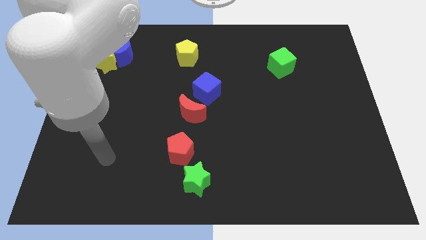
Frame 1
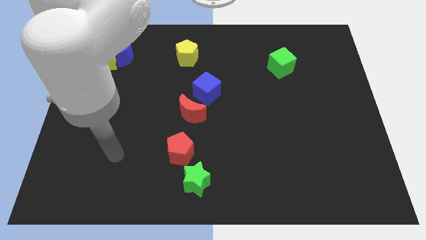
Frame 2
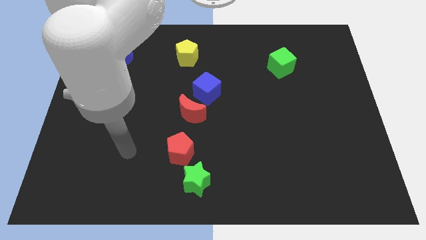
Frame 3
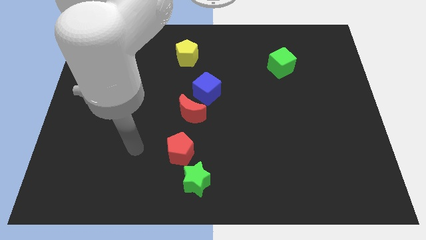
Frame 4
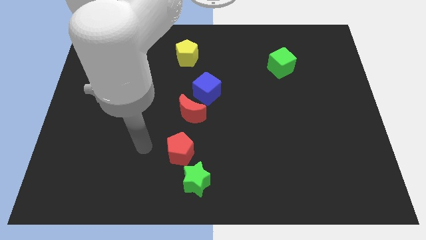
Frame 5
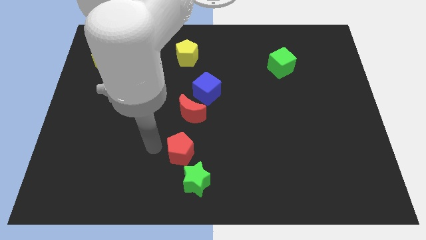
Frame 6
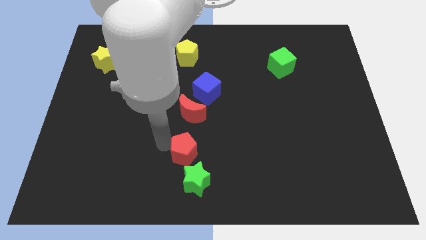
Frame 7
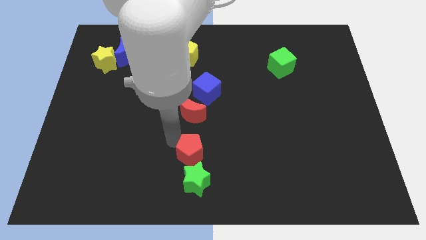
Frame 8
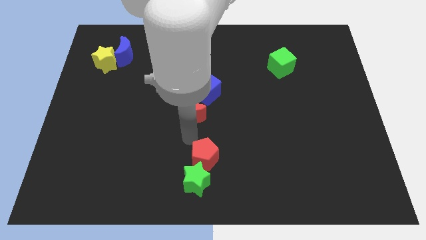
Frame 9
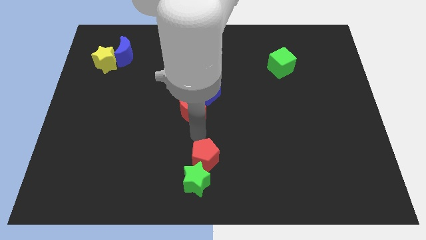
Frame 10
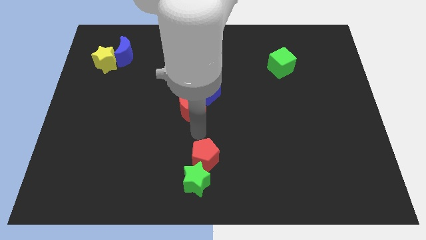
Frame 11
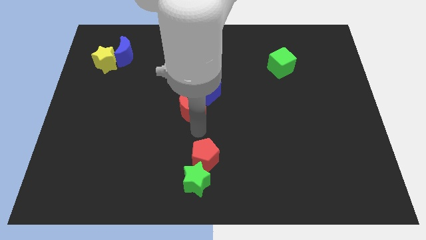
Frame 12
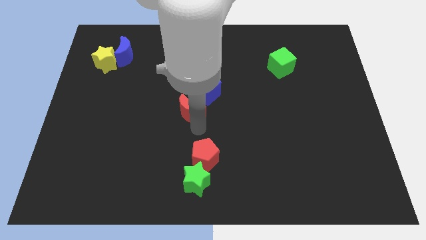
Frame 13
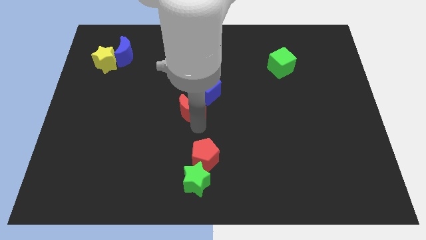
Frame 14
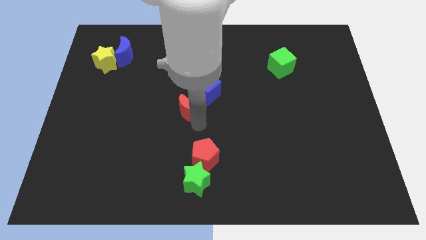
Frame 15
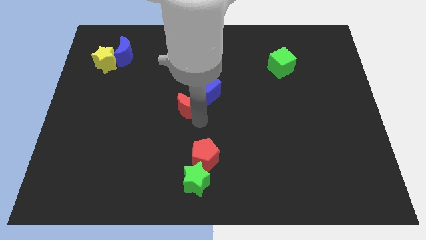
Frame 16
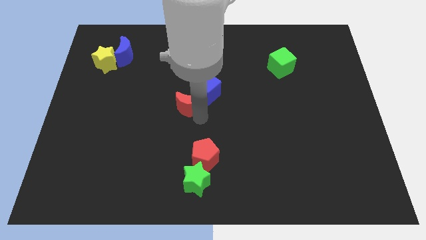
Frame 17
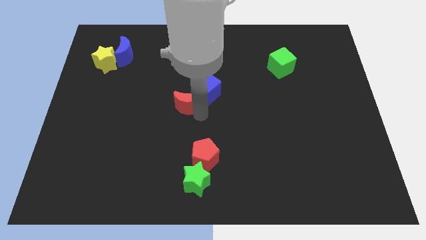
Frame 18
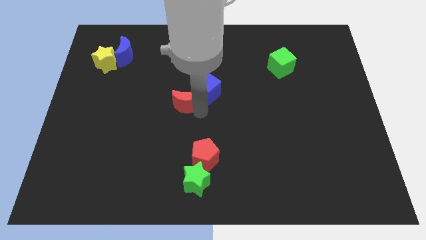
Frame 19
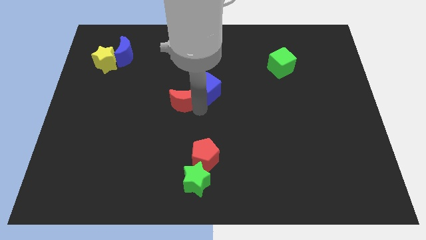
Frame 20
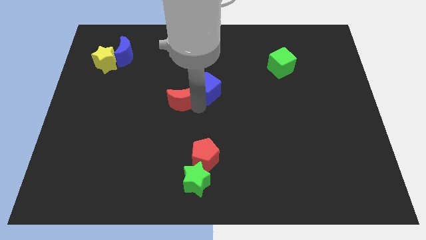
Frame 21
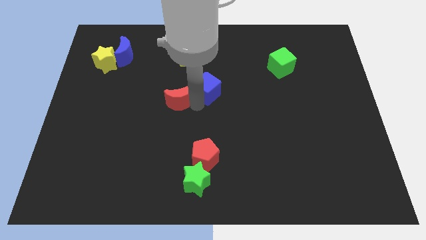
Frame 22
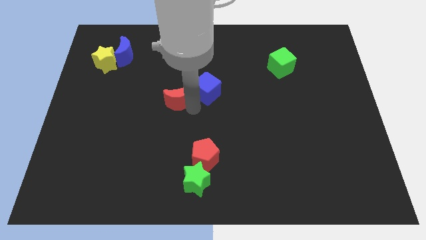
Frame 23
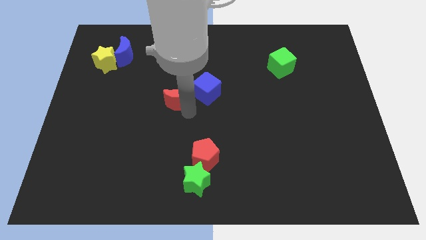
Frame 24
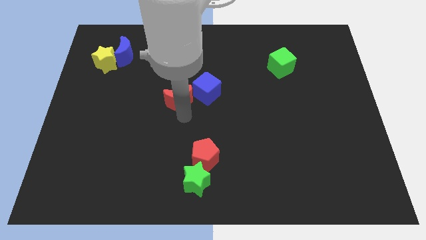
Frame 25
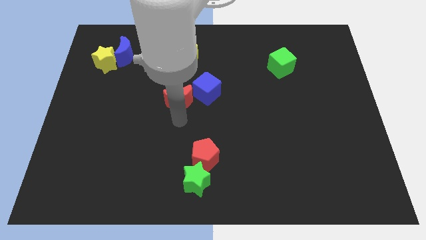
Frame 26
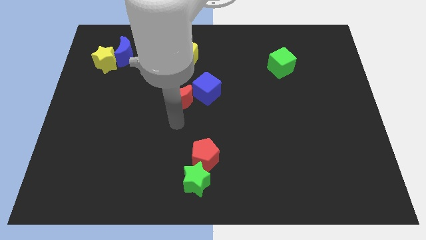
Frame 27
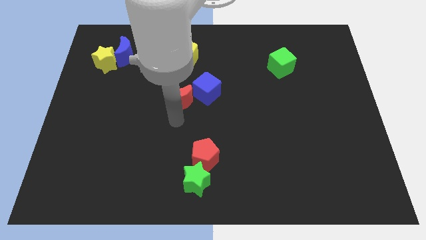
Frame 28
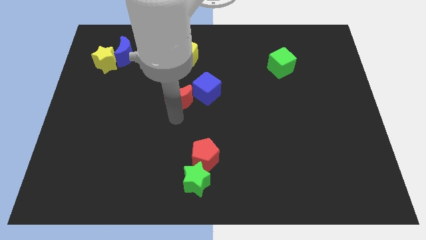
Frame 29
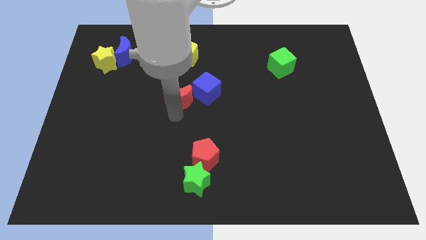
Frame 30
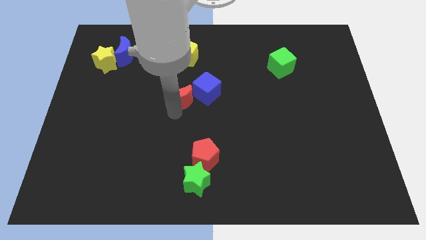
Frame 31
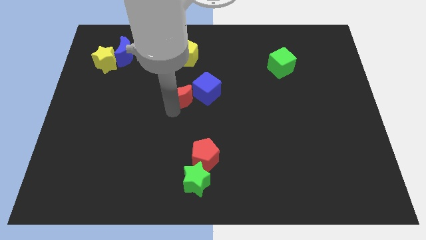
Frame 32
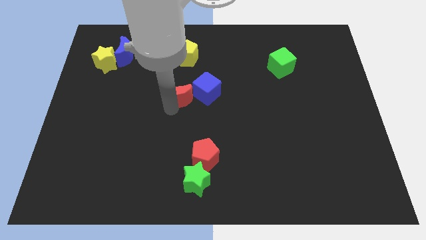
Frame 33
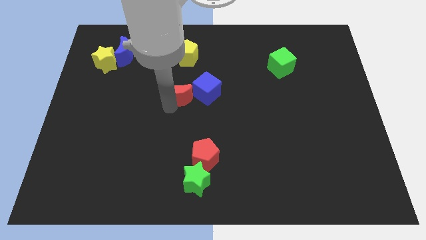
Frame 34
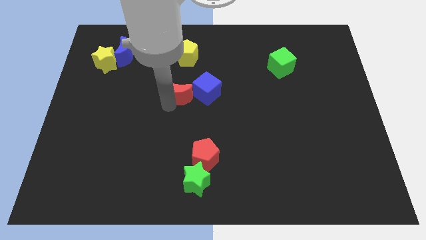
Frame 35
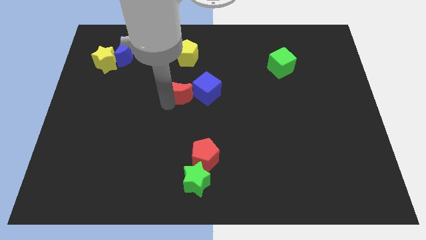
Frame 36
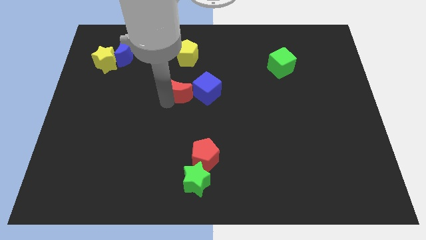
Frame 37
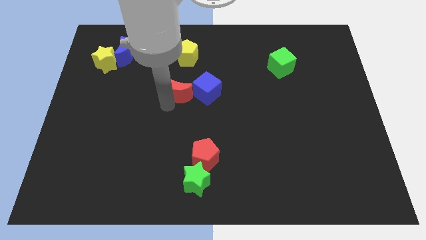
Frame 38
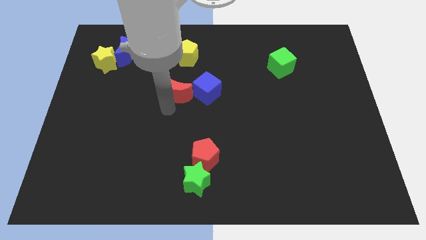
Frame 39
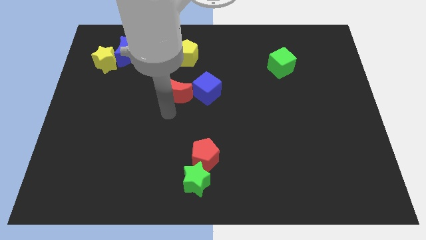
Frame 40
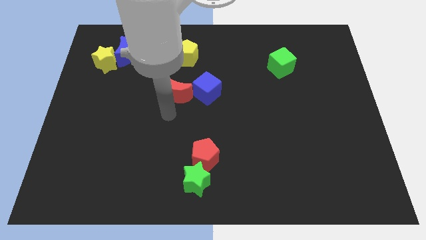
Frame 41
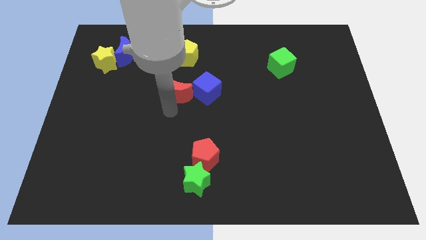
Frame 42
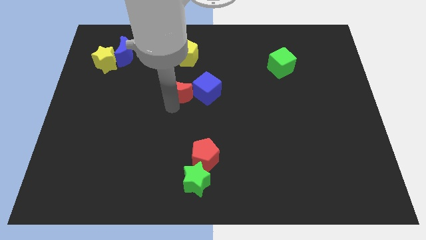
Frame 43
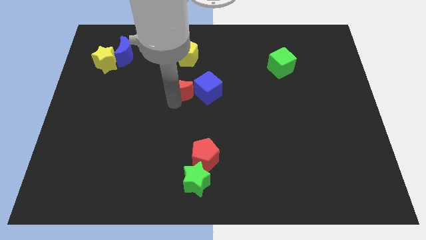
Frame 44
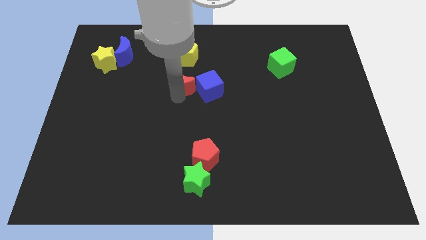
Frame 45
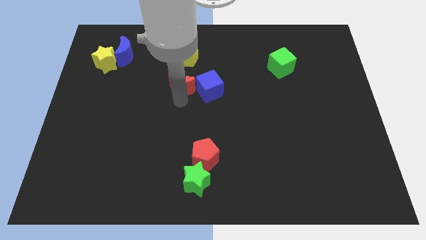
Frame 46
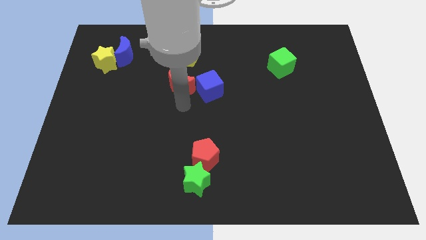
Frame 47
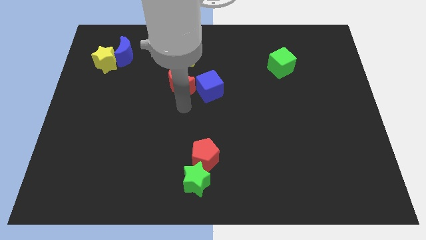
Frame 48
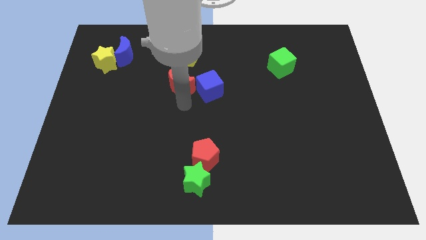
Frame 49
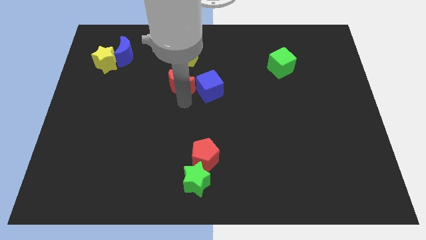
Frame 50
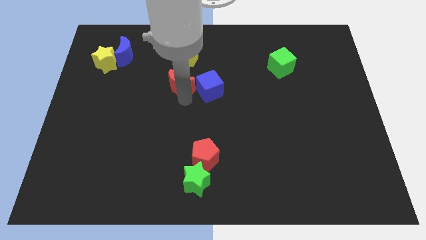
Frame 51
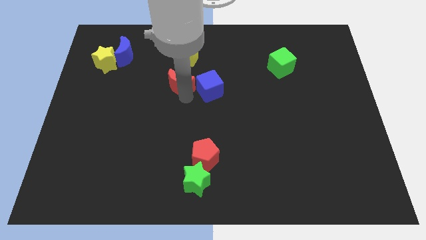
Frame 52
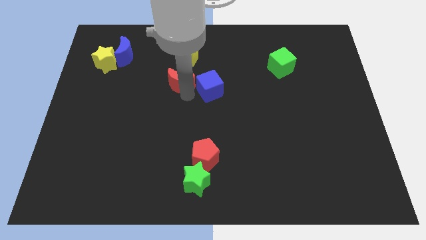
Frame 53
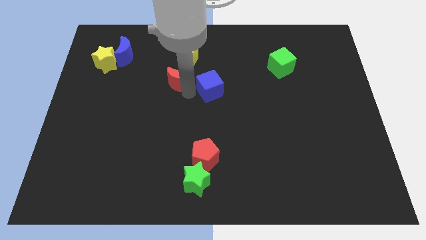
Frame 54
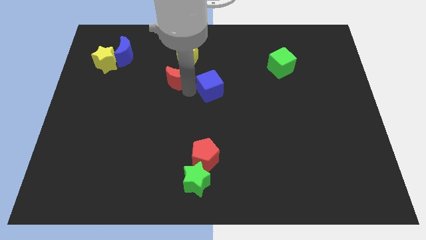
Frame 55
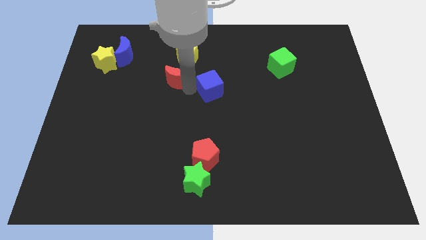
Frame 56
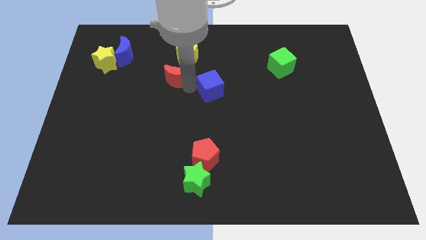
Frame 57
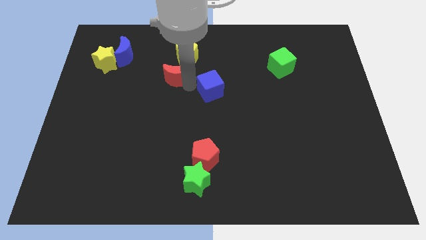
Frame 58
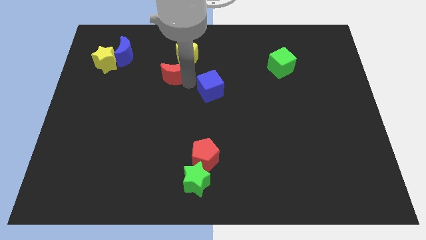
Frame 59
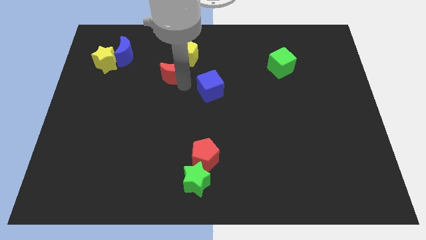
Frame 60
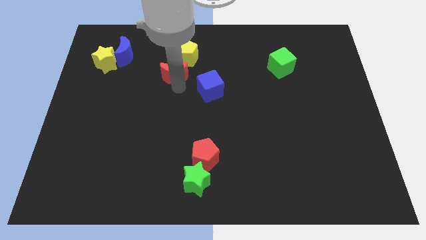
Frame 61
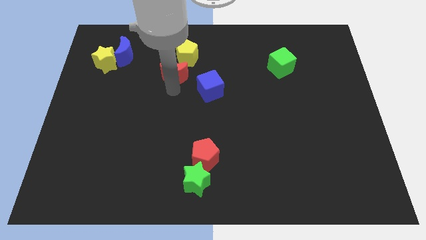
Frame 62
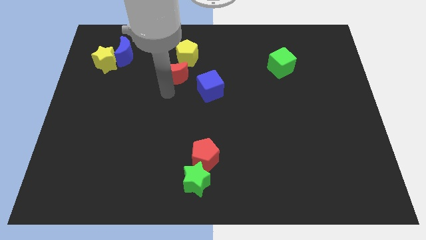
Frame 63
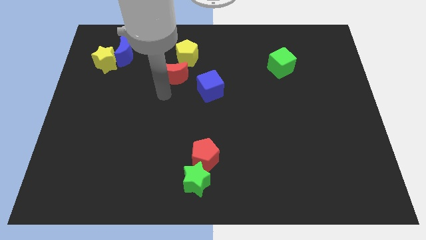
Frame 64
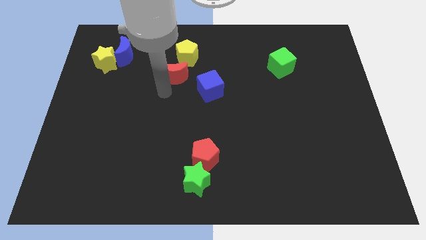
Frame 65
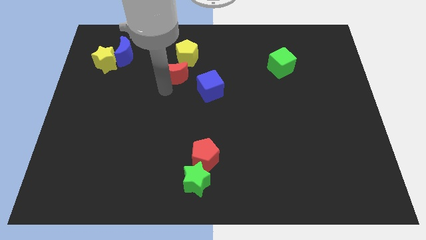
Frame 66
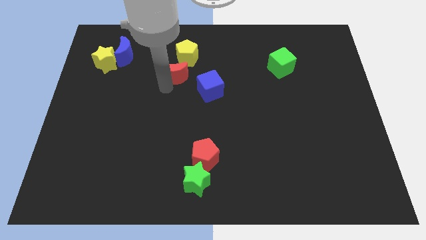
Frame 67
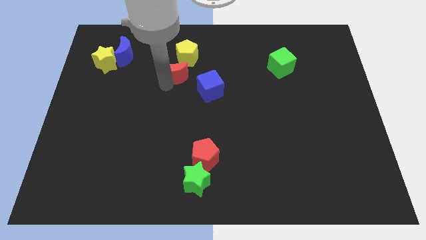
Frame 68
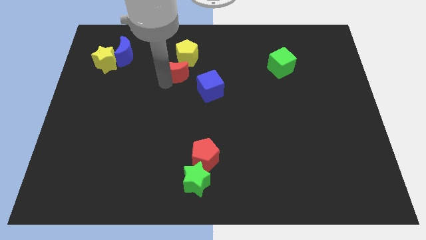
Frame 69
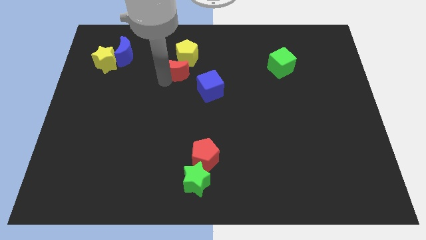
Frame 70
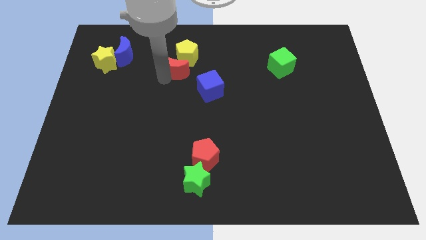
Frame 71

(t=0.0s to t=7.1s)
push the red moon close to the yellow pentagon
